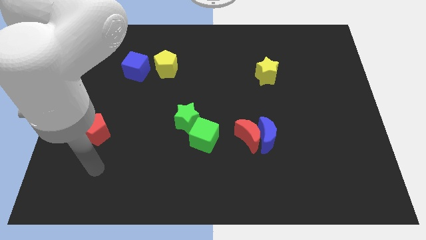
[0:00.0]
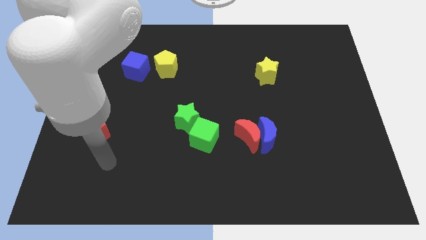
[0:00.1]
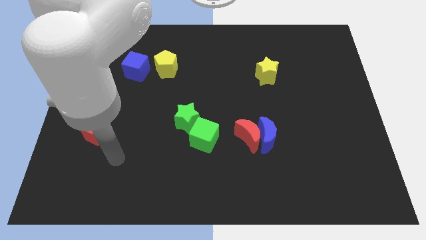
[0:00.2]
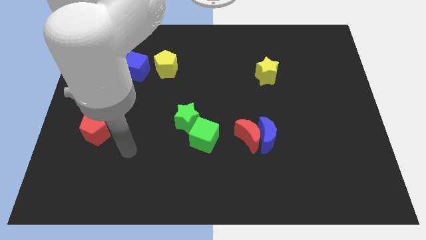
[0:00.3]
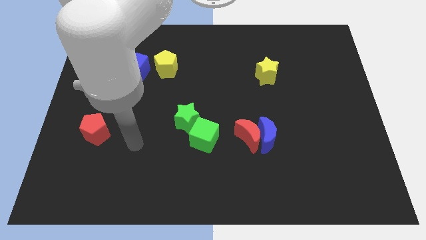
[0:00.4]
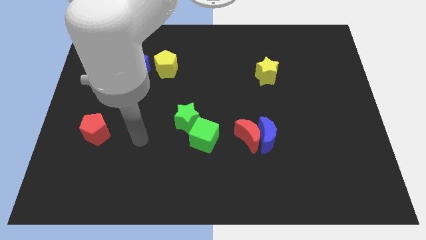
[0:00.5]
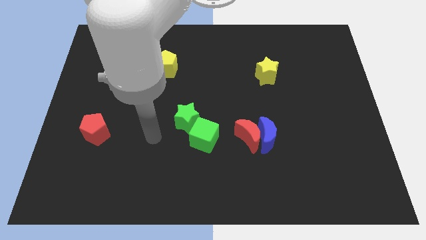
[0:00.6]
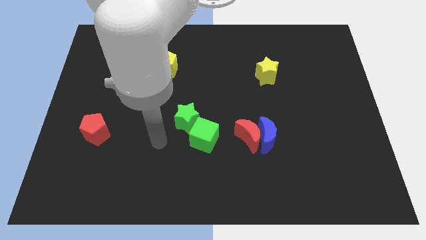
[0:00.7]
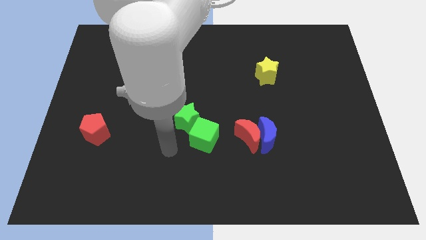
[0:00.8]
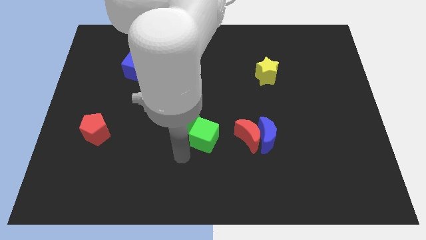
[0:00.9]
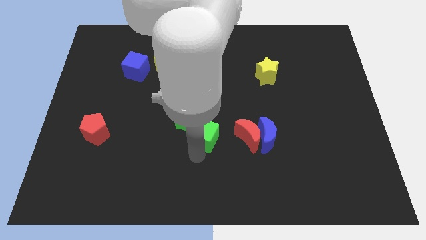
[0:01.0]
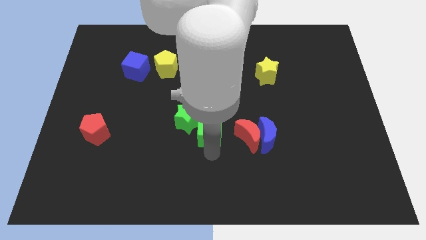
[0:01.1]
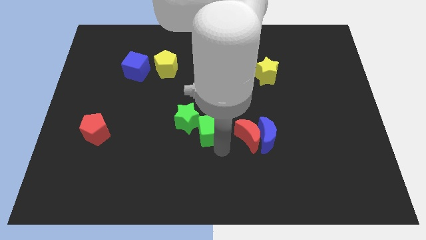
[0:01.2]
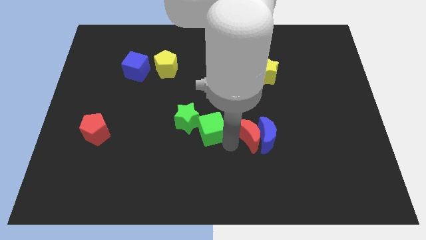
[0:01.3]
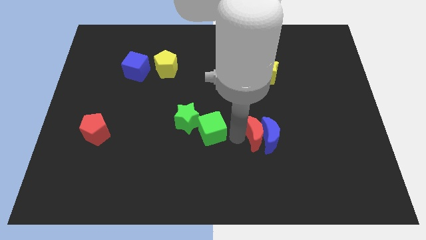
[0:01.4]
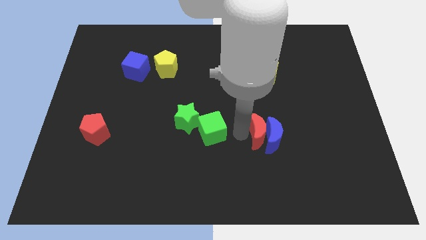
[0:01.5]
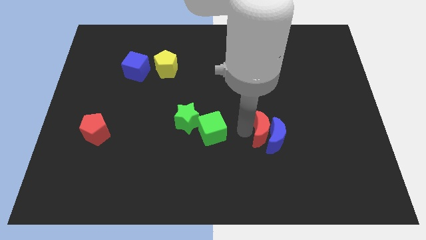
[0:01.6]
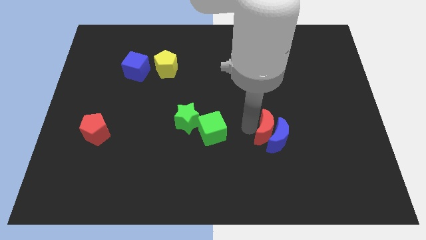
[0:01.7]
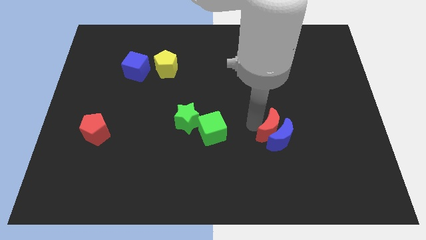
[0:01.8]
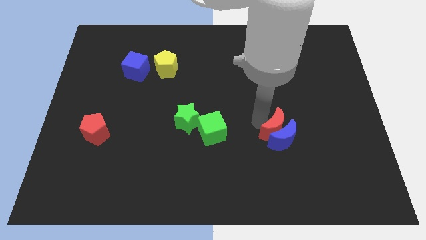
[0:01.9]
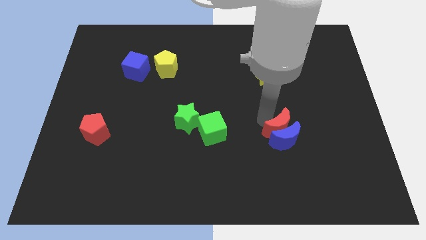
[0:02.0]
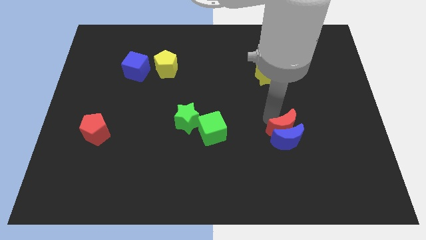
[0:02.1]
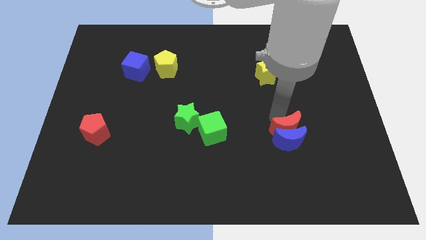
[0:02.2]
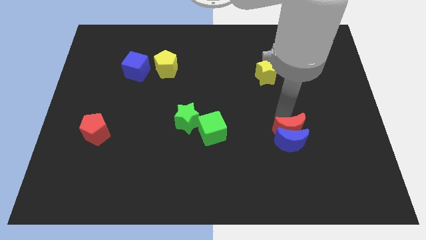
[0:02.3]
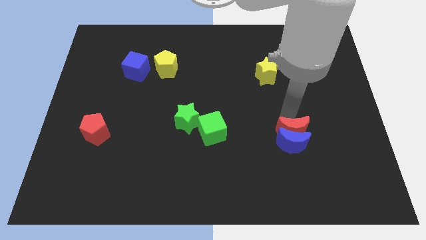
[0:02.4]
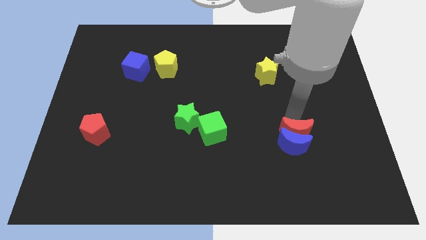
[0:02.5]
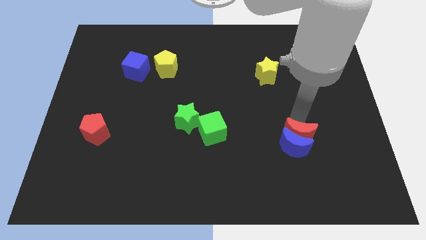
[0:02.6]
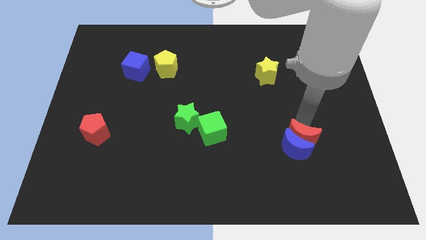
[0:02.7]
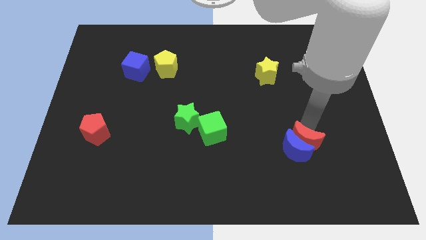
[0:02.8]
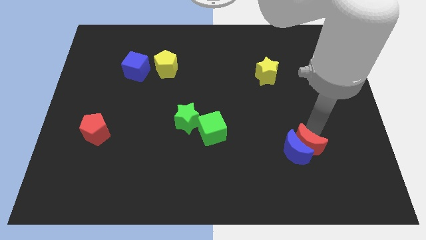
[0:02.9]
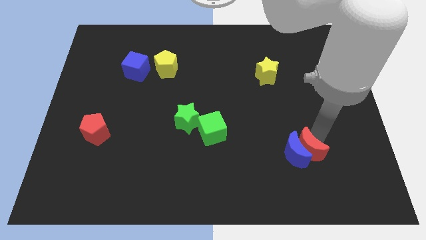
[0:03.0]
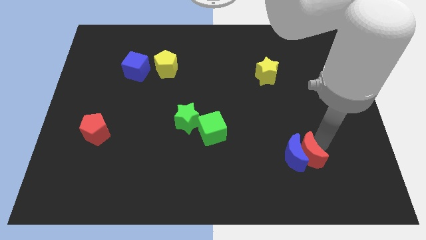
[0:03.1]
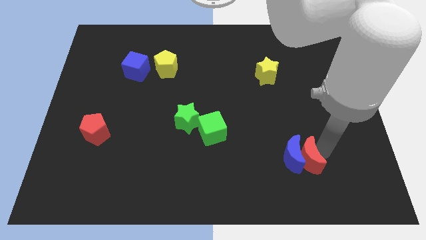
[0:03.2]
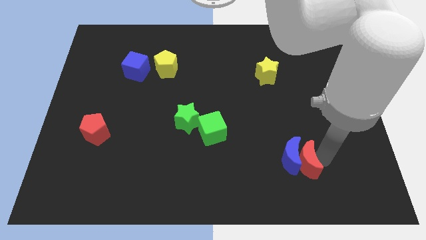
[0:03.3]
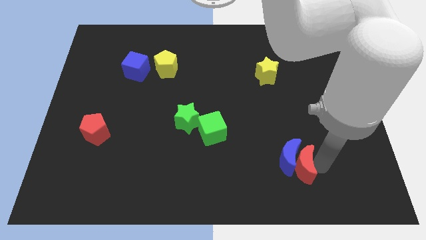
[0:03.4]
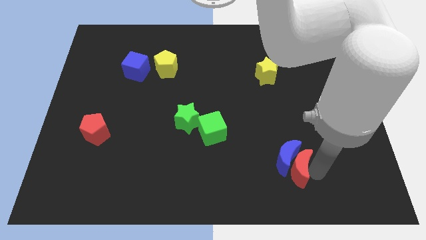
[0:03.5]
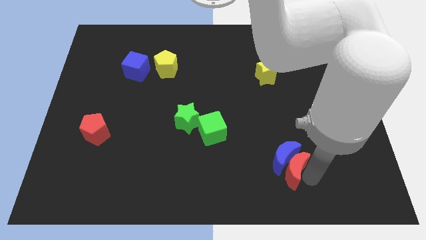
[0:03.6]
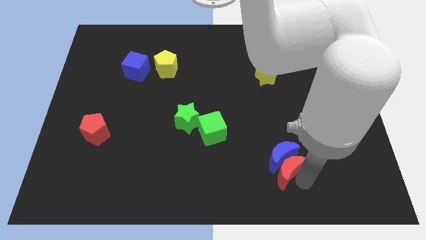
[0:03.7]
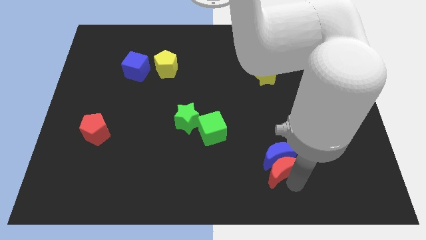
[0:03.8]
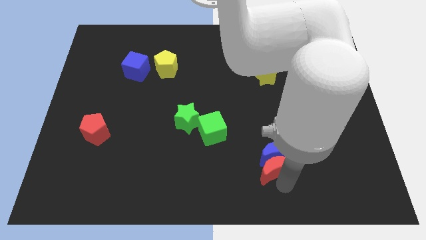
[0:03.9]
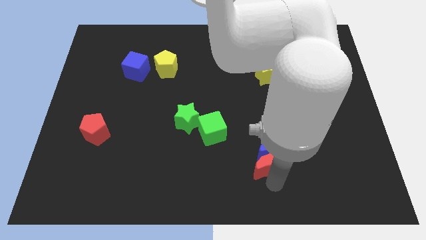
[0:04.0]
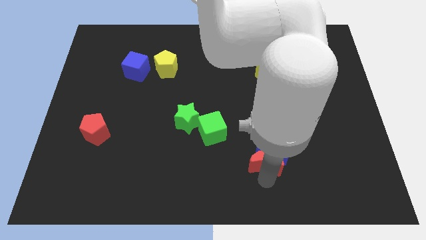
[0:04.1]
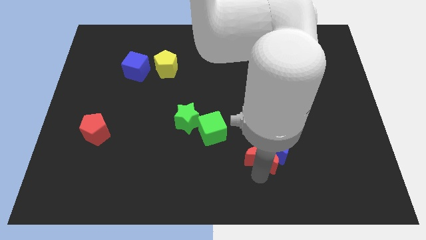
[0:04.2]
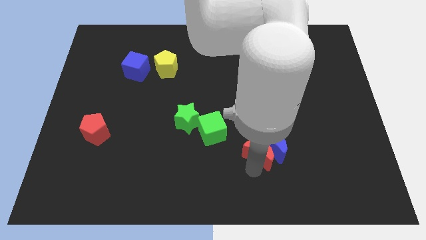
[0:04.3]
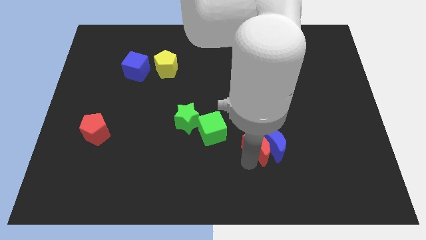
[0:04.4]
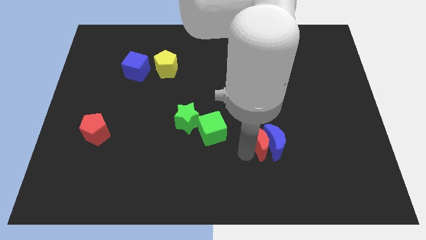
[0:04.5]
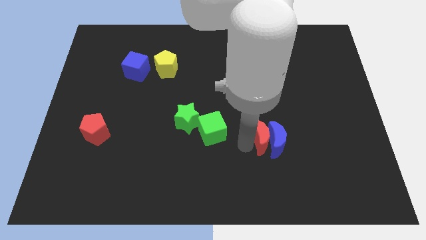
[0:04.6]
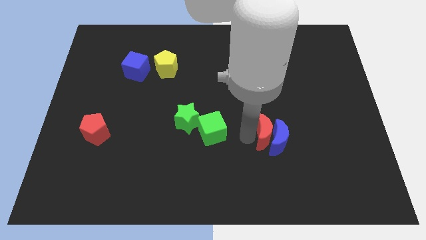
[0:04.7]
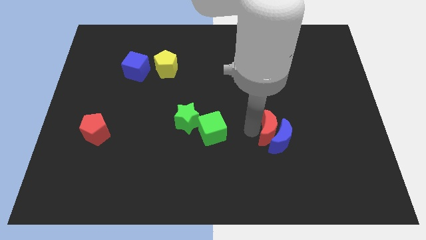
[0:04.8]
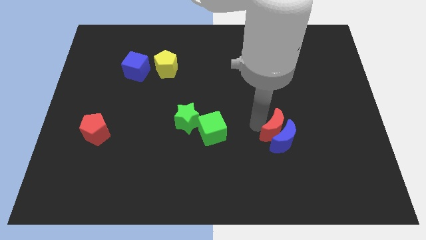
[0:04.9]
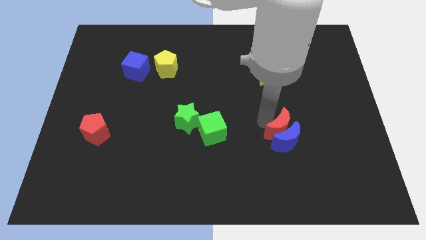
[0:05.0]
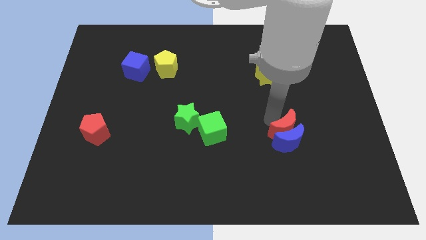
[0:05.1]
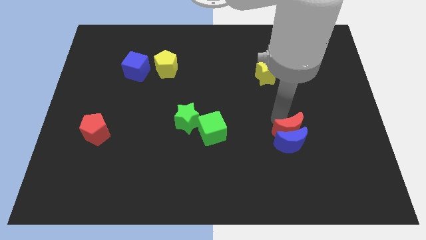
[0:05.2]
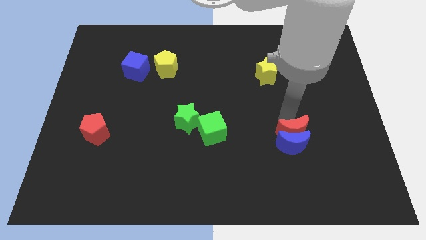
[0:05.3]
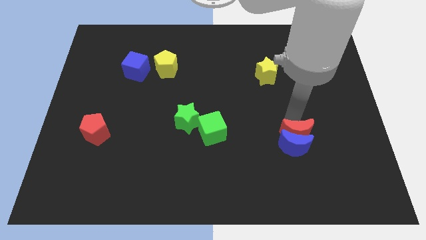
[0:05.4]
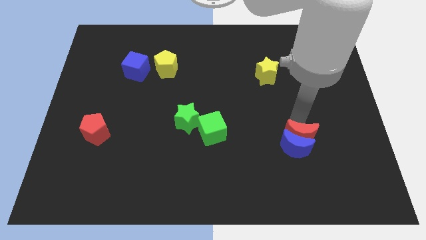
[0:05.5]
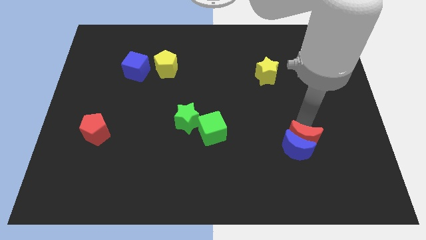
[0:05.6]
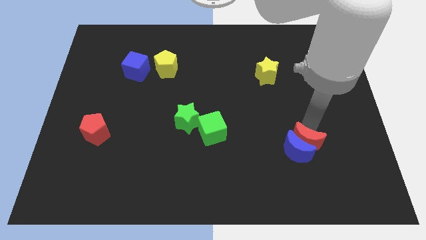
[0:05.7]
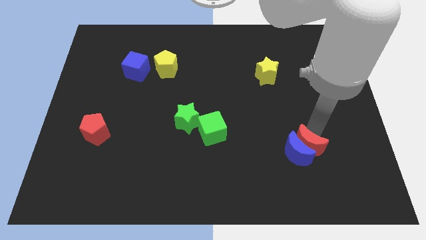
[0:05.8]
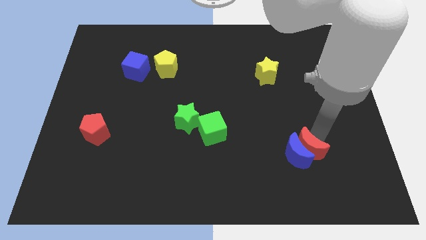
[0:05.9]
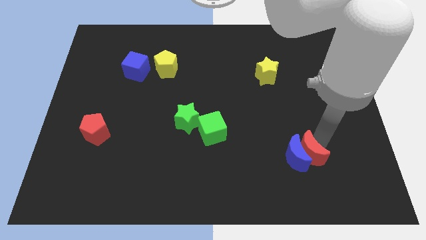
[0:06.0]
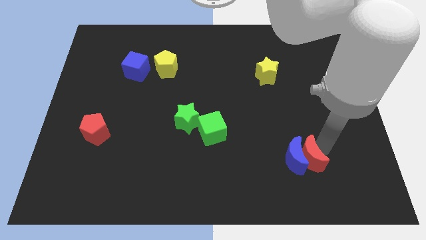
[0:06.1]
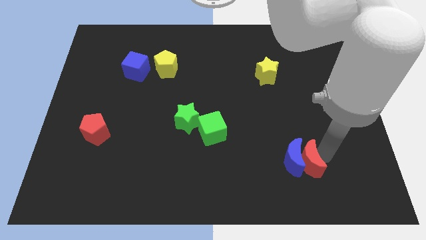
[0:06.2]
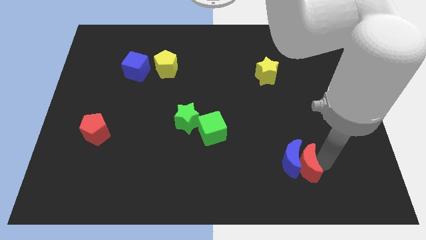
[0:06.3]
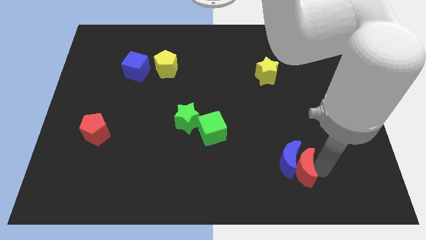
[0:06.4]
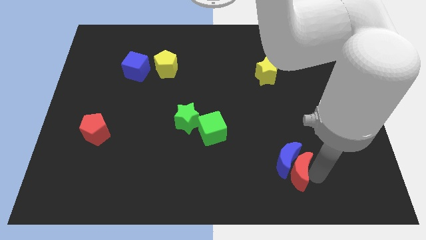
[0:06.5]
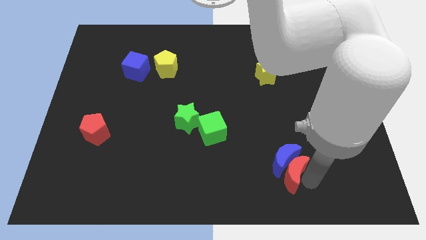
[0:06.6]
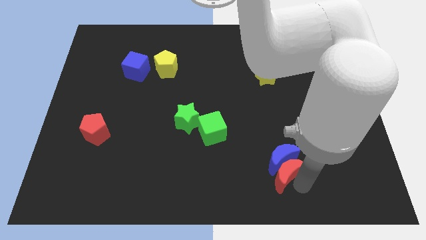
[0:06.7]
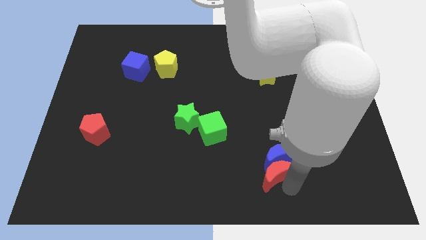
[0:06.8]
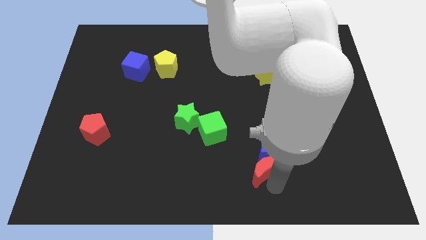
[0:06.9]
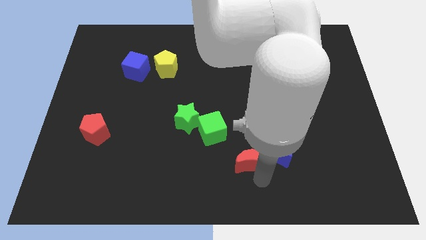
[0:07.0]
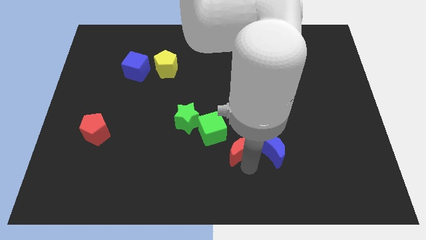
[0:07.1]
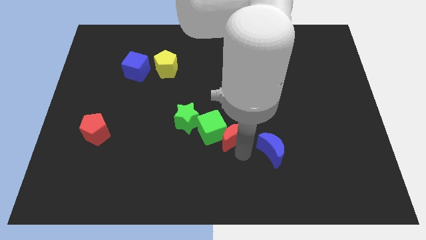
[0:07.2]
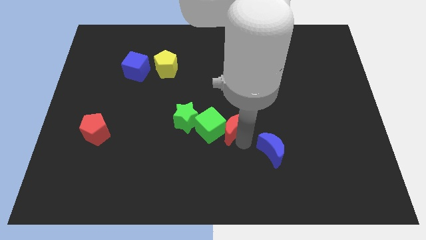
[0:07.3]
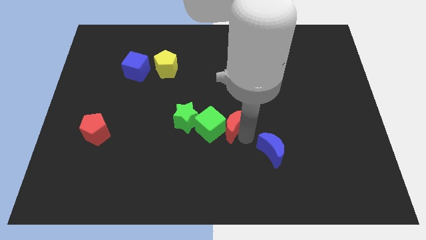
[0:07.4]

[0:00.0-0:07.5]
pull the blue moon apart from the red moon

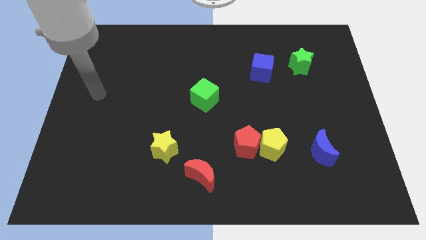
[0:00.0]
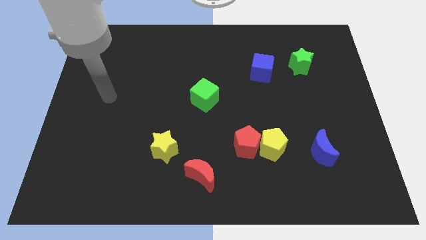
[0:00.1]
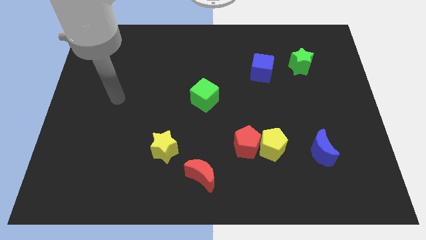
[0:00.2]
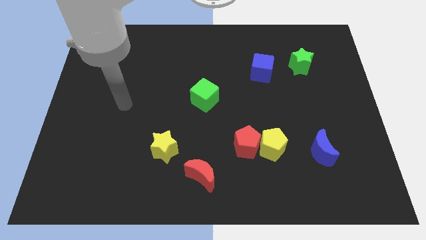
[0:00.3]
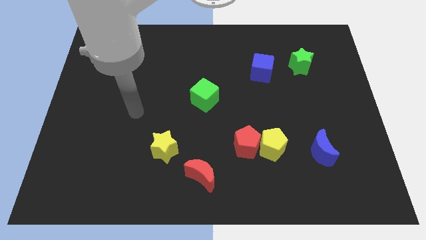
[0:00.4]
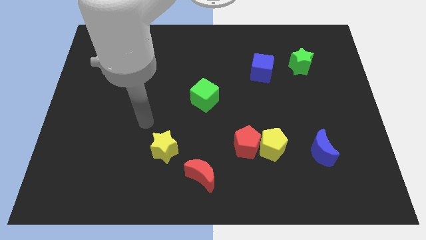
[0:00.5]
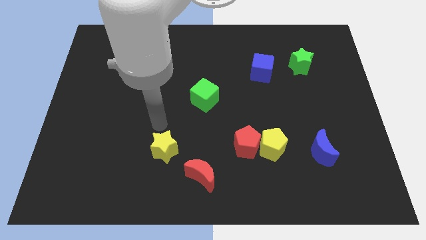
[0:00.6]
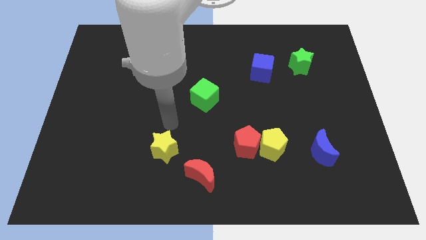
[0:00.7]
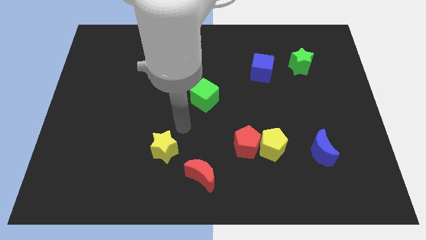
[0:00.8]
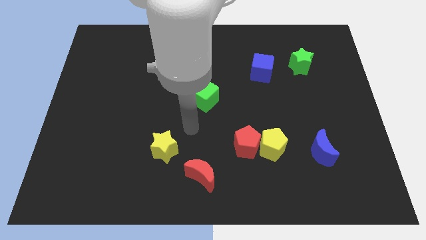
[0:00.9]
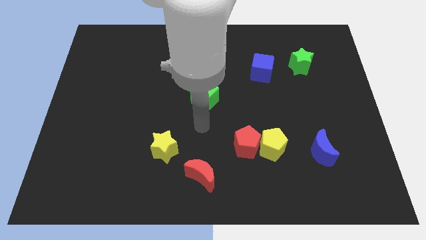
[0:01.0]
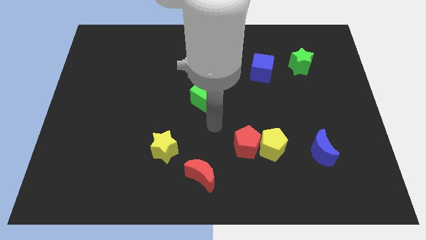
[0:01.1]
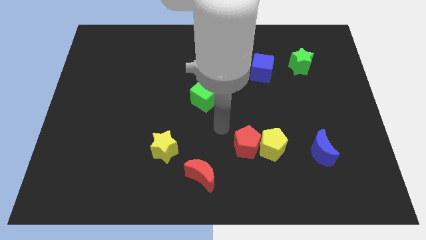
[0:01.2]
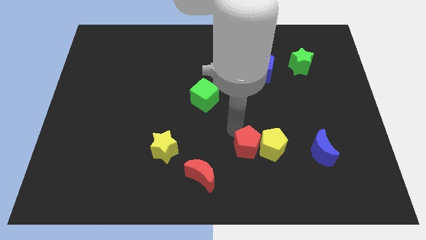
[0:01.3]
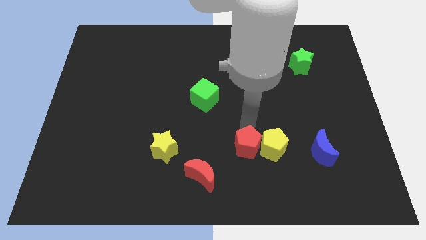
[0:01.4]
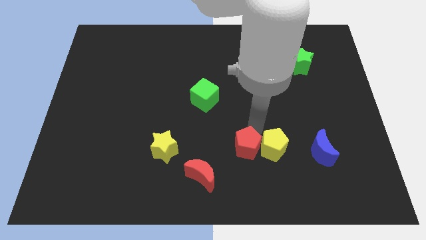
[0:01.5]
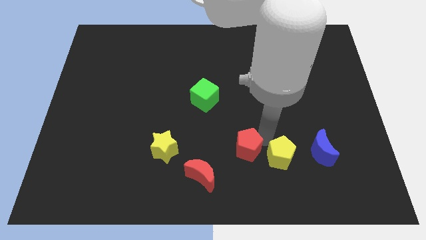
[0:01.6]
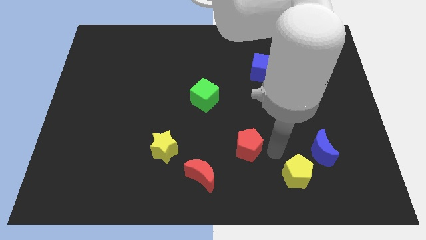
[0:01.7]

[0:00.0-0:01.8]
separate the red pentagon from the yellow pentagon
